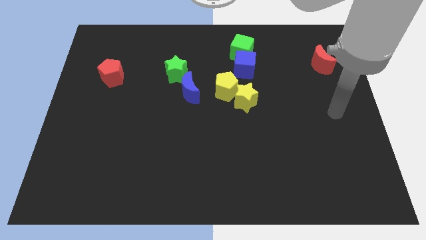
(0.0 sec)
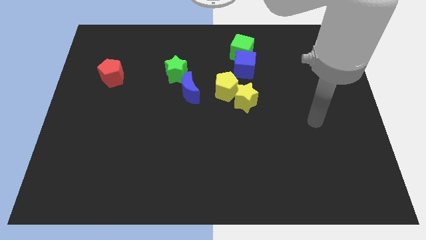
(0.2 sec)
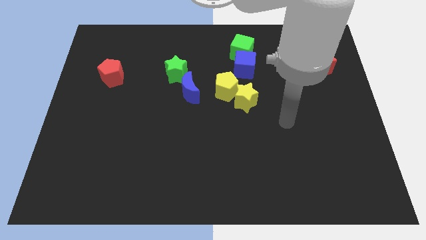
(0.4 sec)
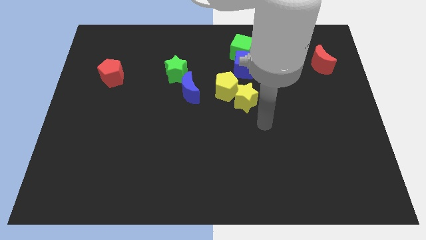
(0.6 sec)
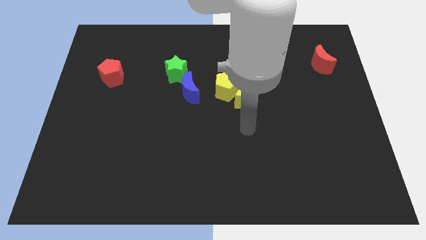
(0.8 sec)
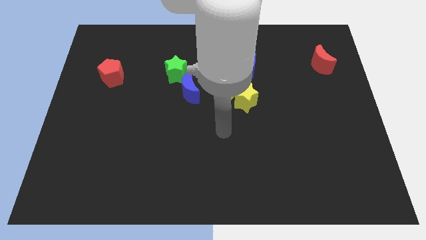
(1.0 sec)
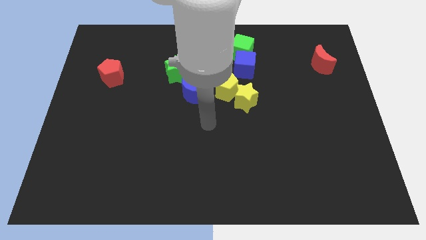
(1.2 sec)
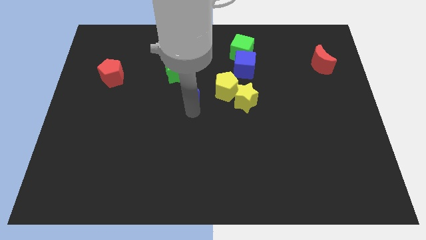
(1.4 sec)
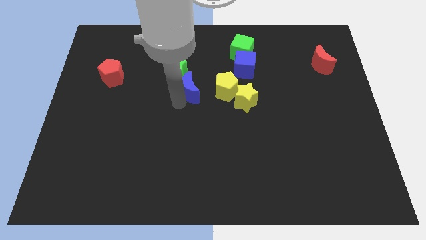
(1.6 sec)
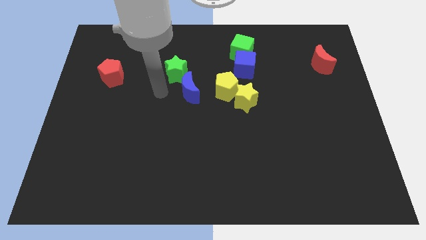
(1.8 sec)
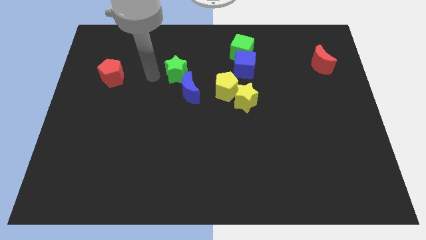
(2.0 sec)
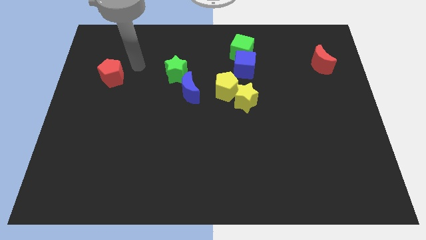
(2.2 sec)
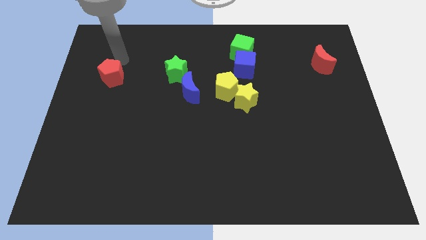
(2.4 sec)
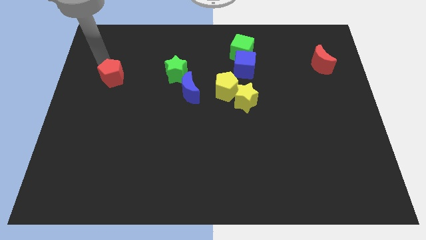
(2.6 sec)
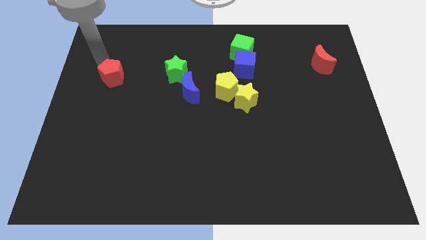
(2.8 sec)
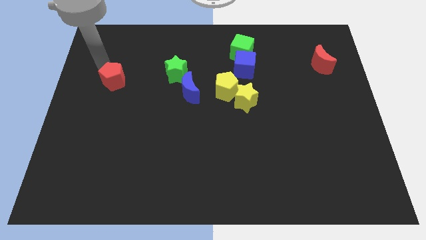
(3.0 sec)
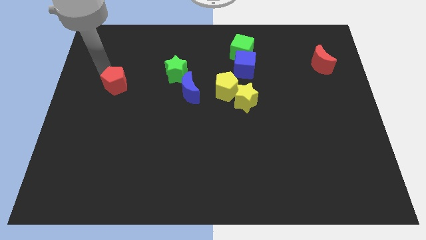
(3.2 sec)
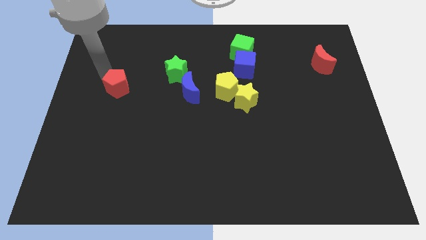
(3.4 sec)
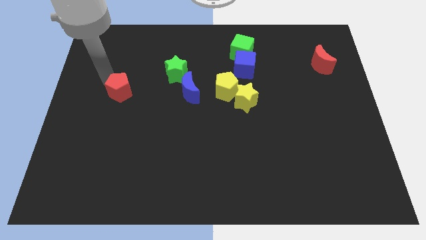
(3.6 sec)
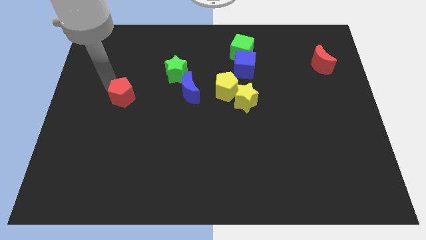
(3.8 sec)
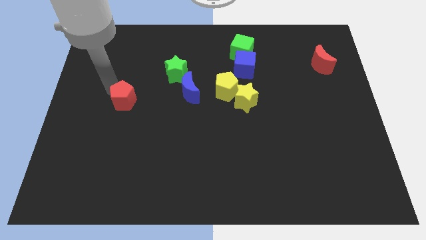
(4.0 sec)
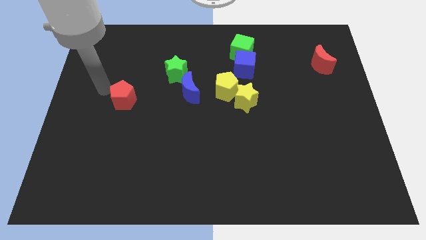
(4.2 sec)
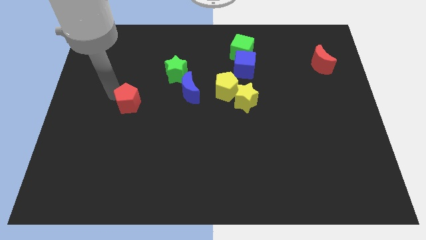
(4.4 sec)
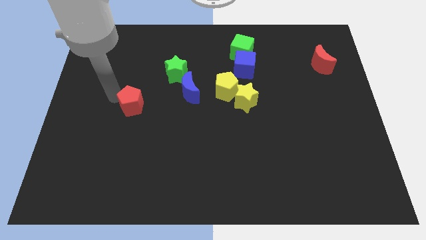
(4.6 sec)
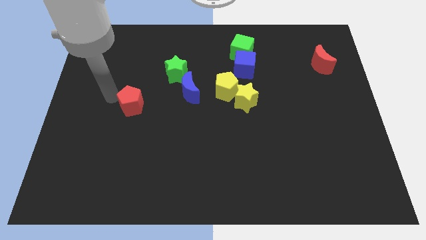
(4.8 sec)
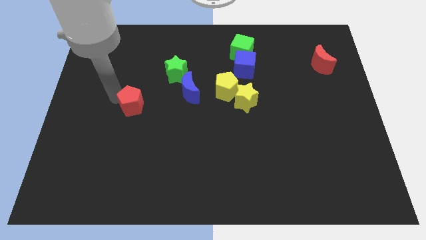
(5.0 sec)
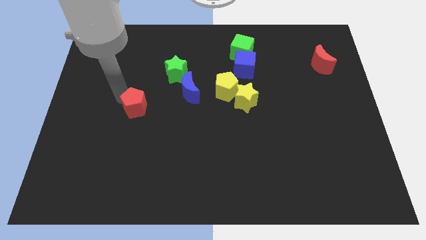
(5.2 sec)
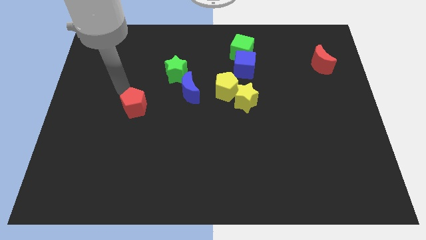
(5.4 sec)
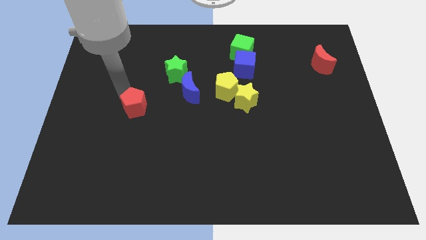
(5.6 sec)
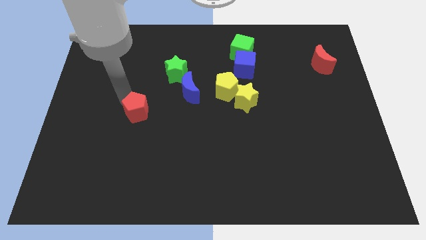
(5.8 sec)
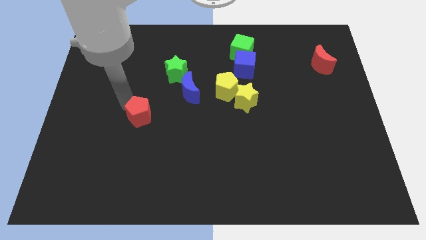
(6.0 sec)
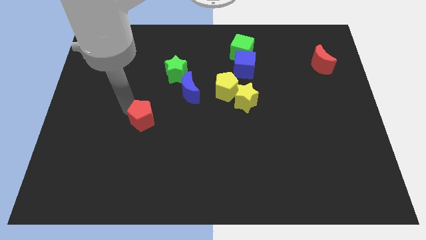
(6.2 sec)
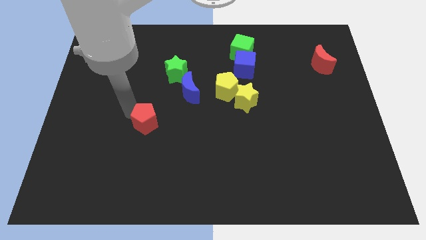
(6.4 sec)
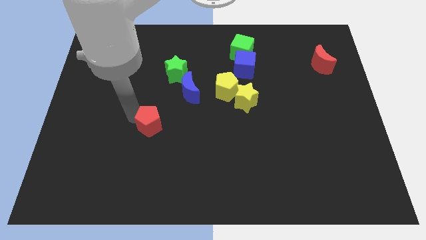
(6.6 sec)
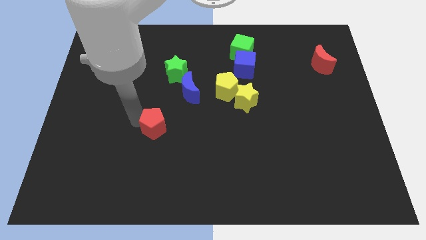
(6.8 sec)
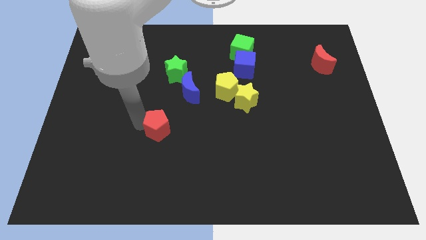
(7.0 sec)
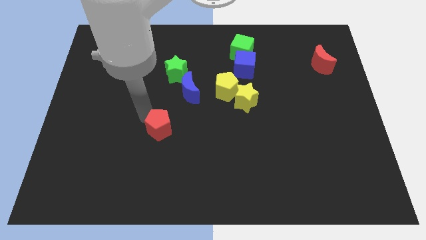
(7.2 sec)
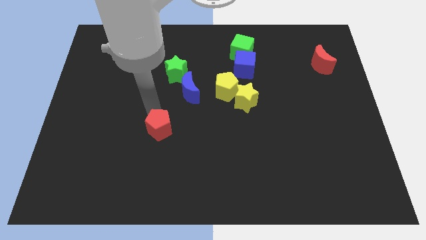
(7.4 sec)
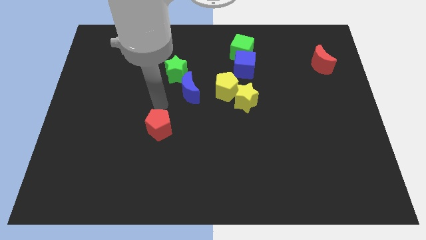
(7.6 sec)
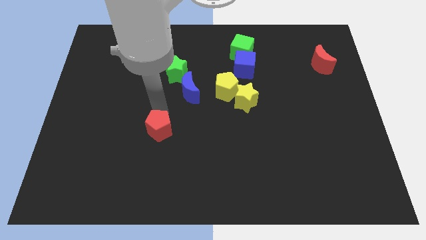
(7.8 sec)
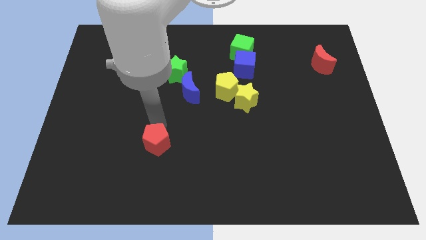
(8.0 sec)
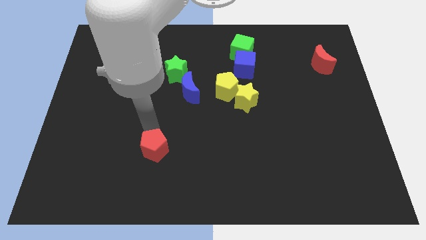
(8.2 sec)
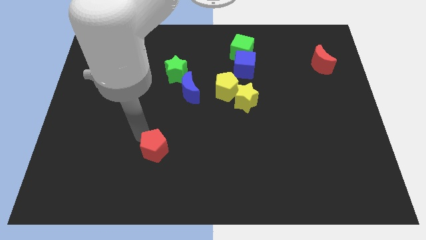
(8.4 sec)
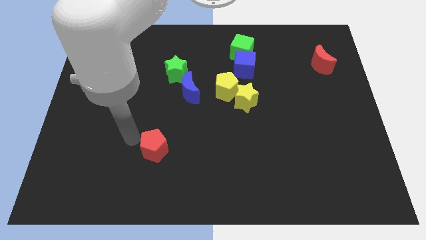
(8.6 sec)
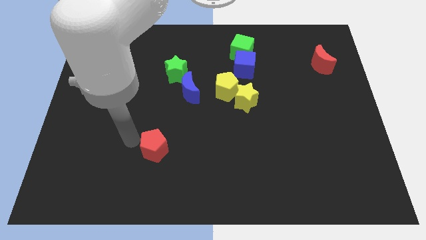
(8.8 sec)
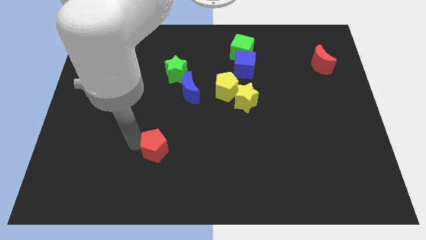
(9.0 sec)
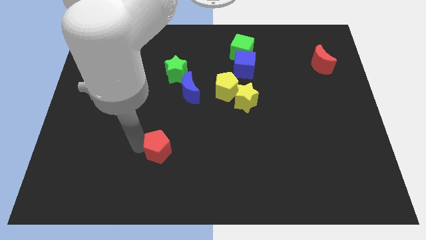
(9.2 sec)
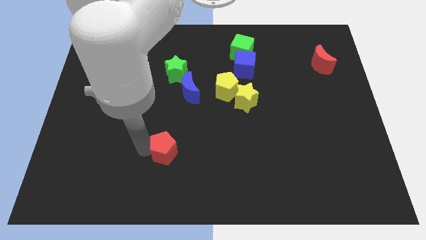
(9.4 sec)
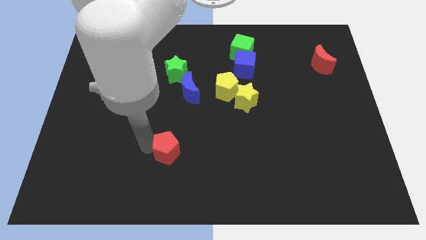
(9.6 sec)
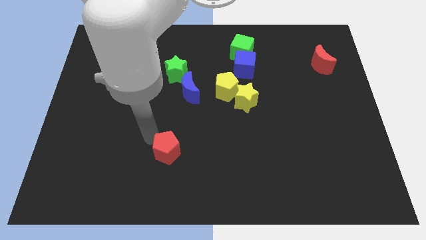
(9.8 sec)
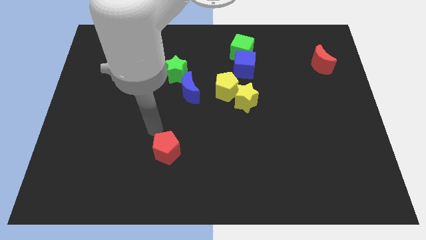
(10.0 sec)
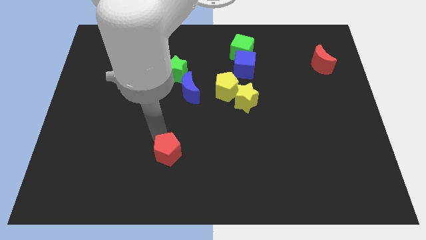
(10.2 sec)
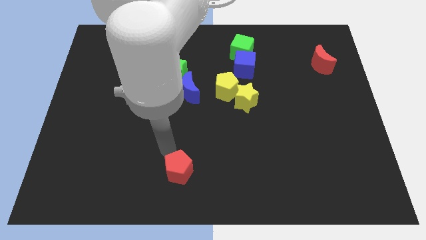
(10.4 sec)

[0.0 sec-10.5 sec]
slide the red pentagon to the bottom side

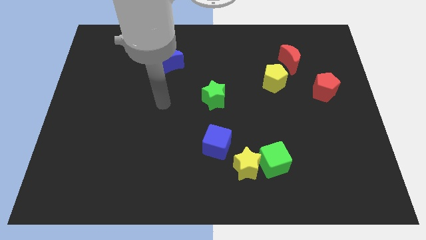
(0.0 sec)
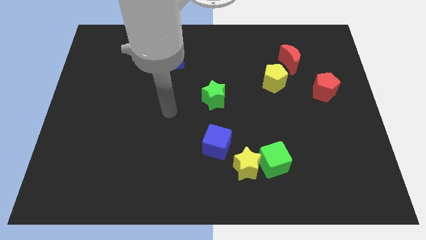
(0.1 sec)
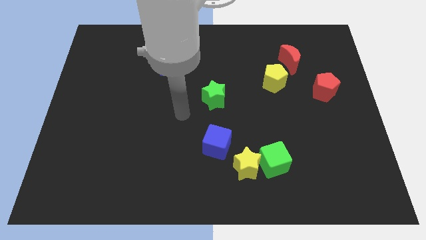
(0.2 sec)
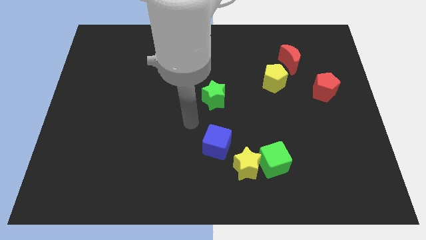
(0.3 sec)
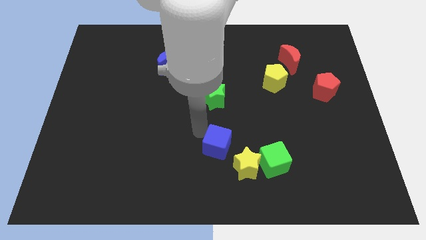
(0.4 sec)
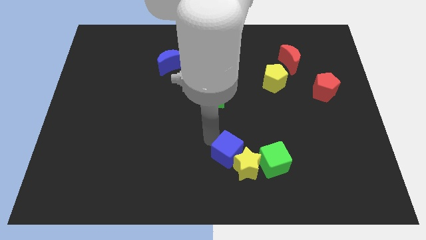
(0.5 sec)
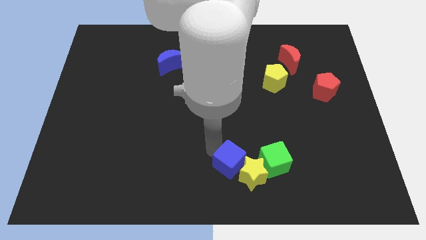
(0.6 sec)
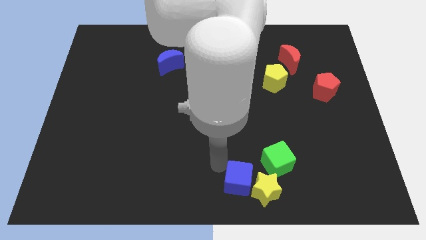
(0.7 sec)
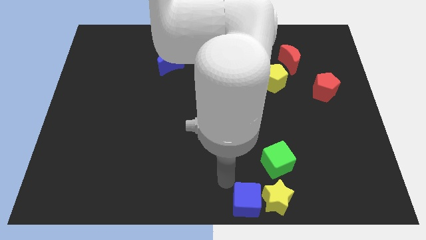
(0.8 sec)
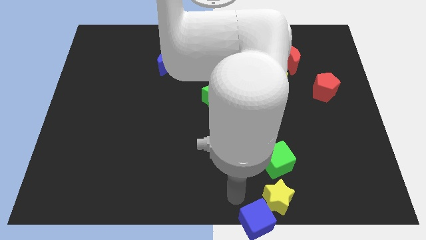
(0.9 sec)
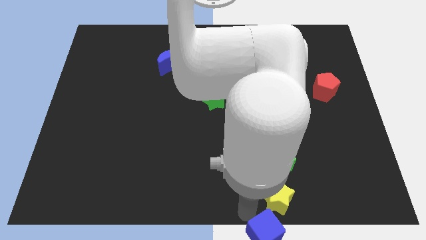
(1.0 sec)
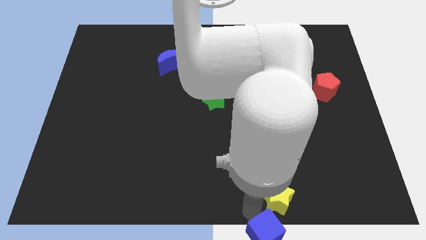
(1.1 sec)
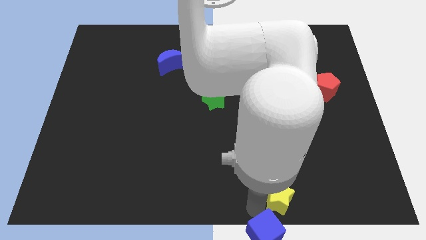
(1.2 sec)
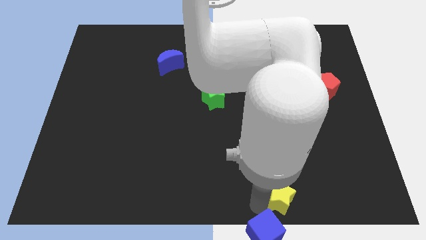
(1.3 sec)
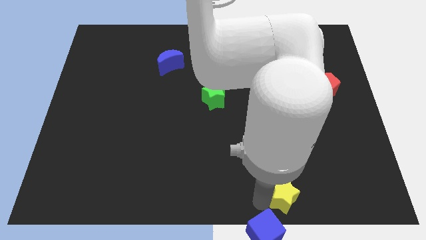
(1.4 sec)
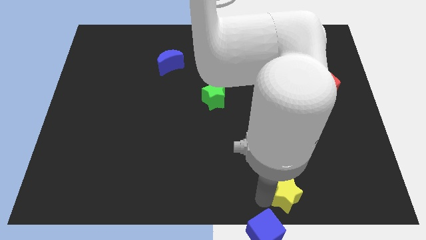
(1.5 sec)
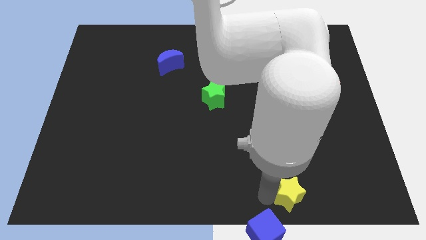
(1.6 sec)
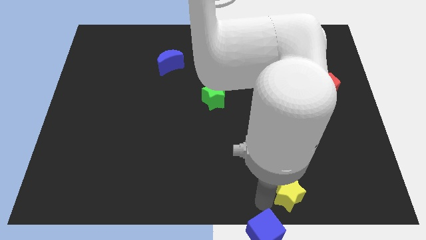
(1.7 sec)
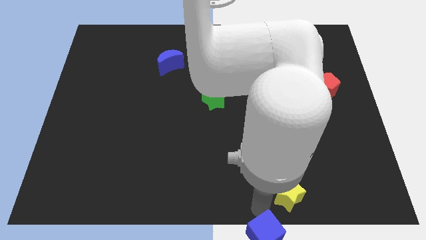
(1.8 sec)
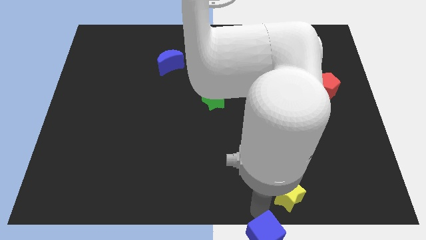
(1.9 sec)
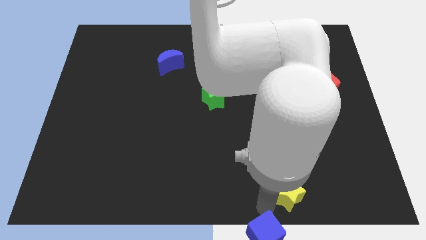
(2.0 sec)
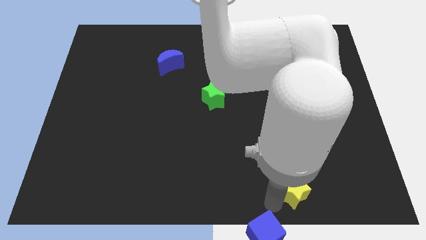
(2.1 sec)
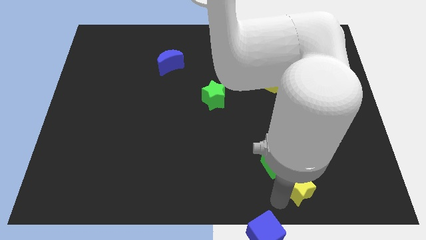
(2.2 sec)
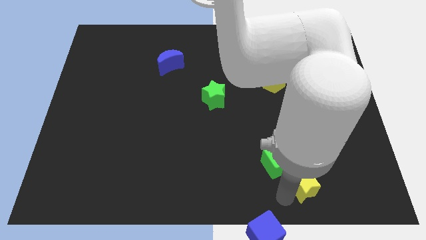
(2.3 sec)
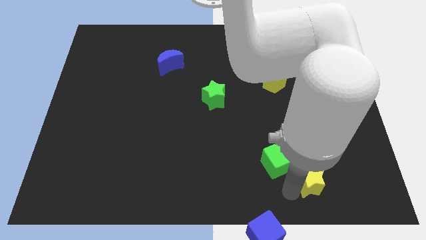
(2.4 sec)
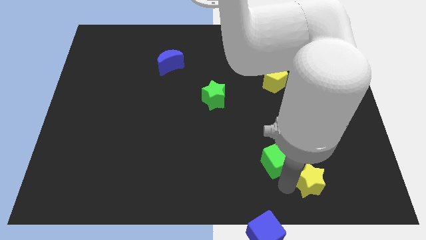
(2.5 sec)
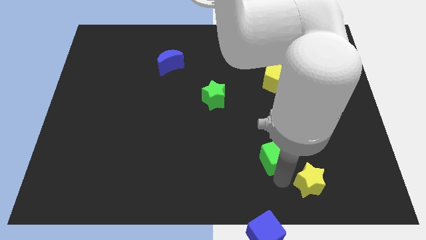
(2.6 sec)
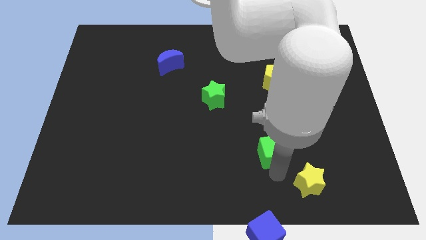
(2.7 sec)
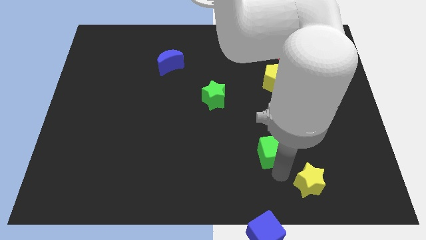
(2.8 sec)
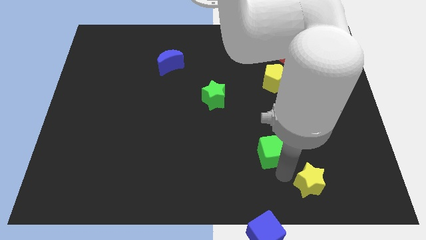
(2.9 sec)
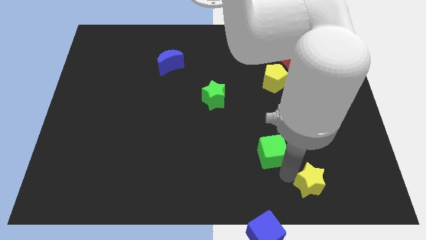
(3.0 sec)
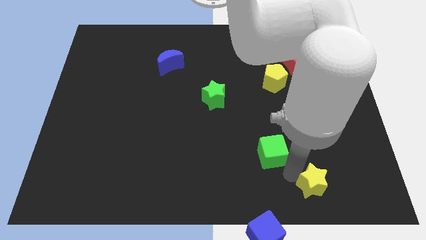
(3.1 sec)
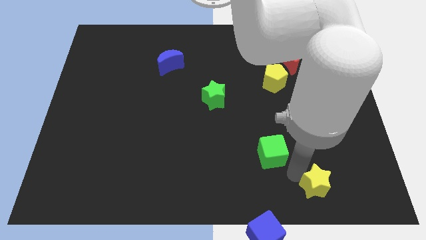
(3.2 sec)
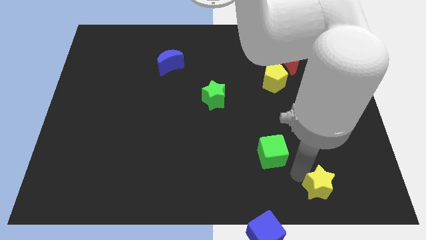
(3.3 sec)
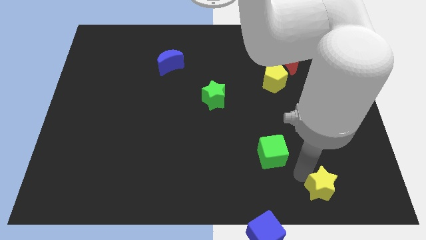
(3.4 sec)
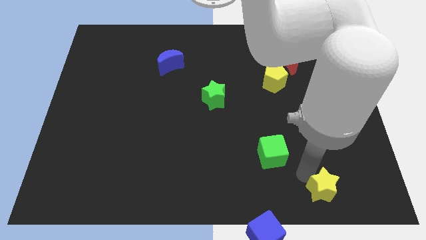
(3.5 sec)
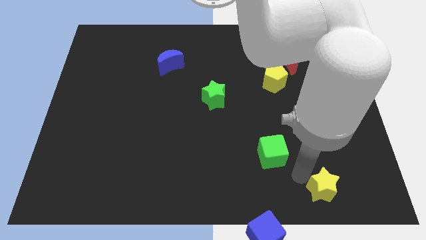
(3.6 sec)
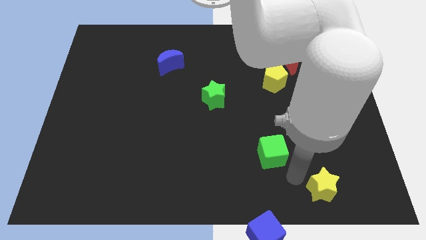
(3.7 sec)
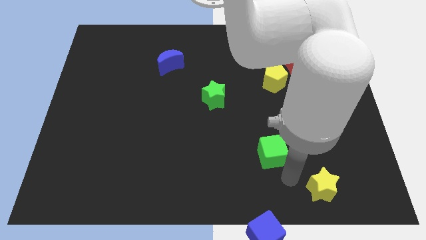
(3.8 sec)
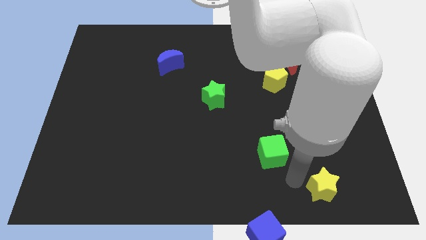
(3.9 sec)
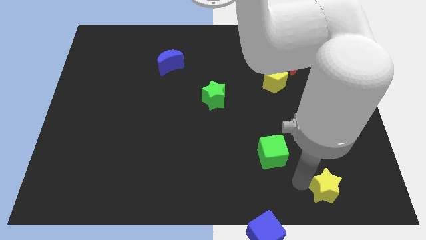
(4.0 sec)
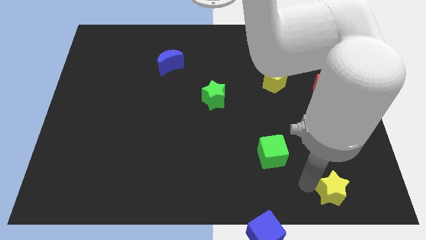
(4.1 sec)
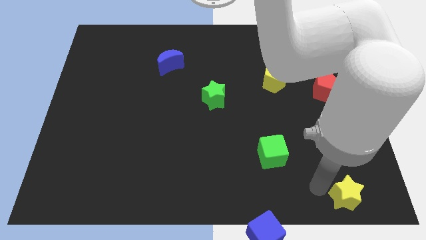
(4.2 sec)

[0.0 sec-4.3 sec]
slide the yellow star to the bottom right corner
